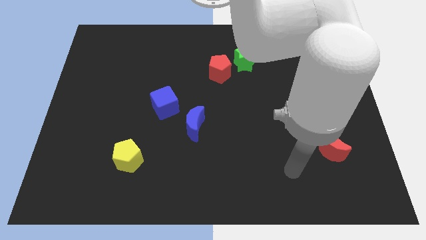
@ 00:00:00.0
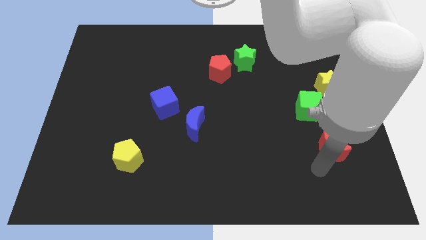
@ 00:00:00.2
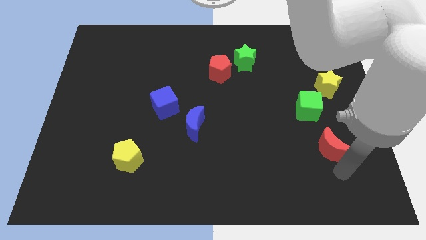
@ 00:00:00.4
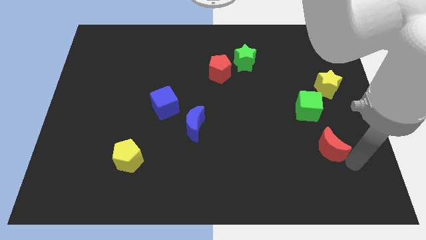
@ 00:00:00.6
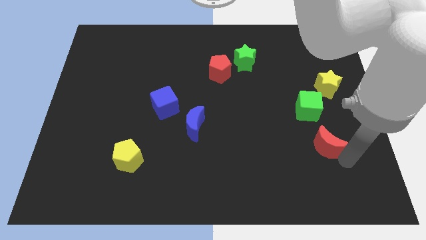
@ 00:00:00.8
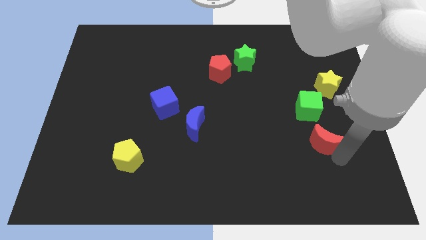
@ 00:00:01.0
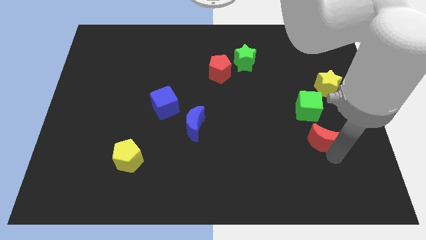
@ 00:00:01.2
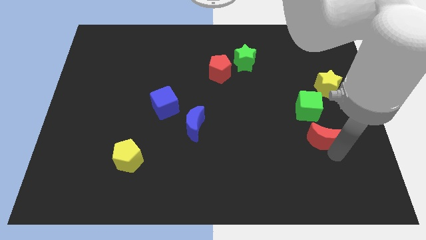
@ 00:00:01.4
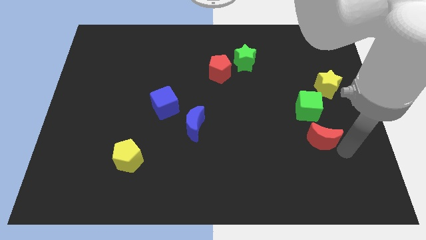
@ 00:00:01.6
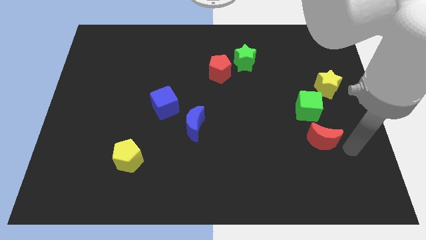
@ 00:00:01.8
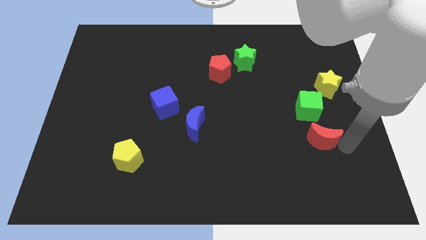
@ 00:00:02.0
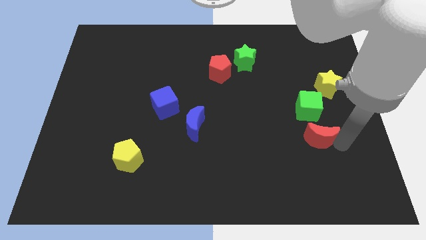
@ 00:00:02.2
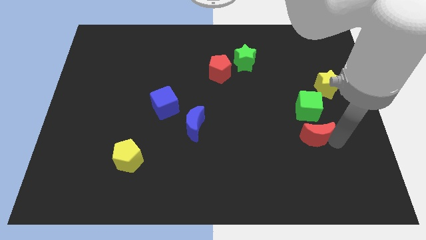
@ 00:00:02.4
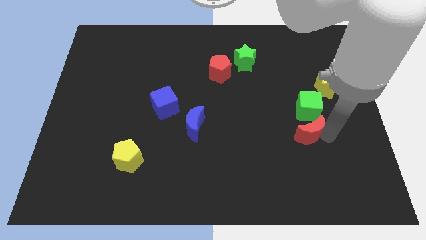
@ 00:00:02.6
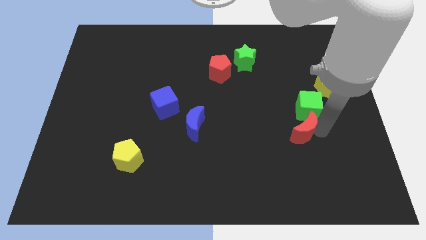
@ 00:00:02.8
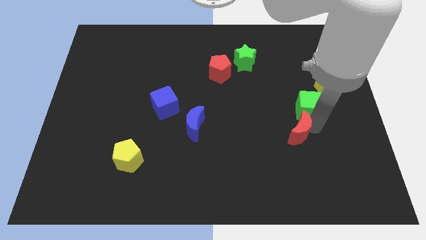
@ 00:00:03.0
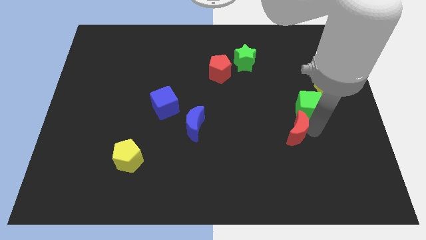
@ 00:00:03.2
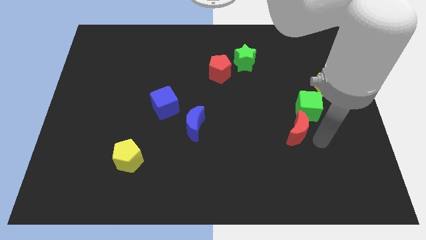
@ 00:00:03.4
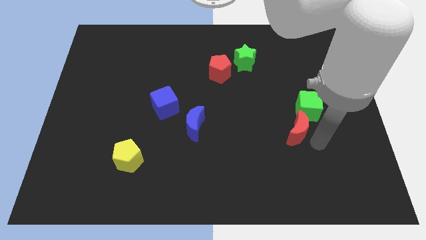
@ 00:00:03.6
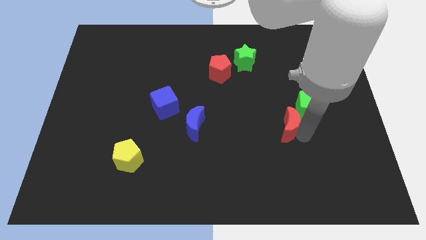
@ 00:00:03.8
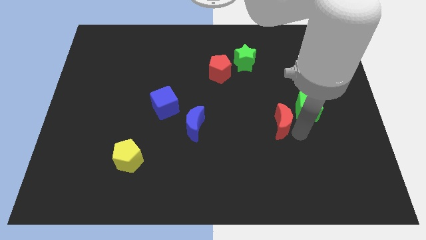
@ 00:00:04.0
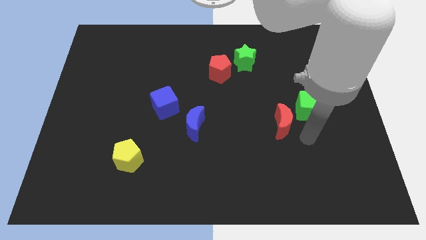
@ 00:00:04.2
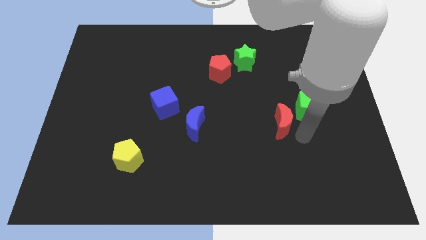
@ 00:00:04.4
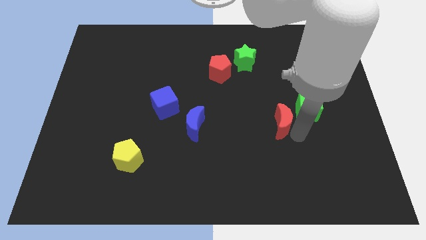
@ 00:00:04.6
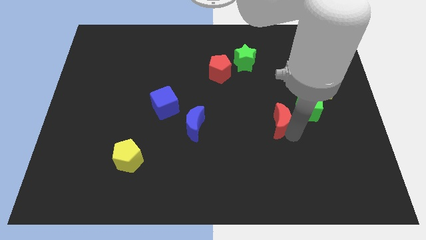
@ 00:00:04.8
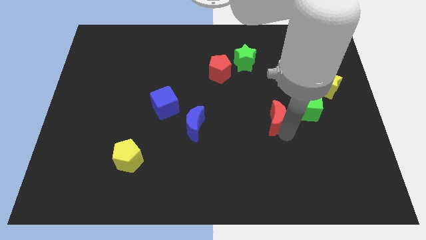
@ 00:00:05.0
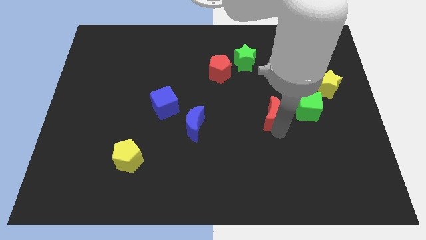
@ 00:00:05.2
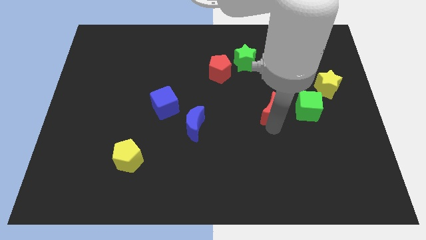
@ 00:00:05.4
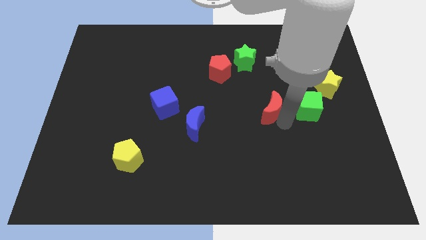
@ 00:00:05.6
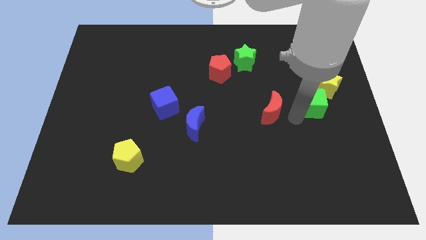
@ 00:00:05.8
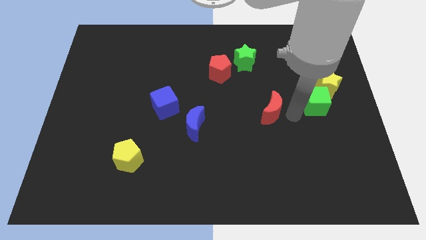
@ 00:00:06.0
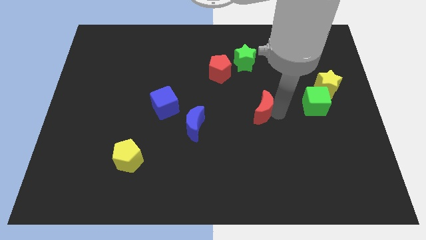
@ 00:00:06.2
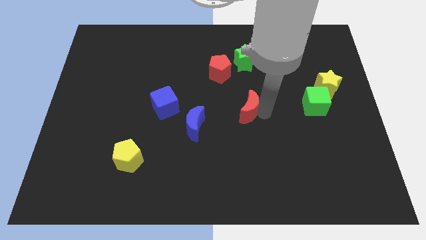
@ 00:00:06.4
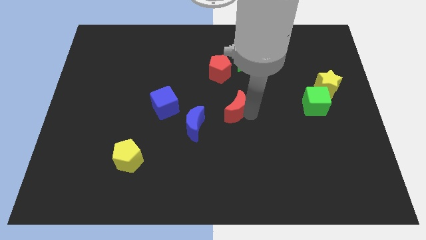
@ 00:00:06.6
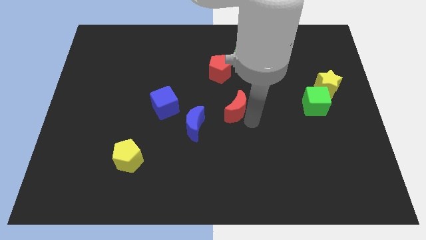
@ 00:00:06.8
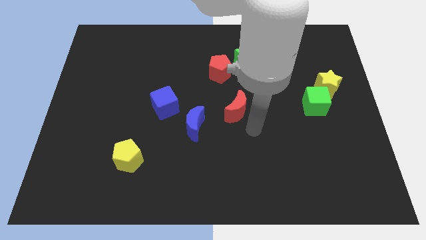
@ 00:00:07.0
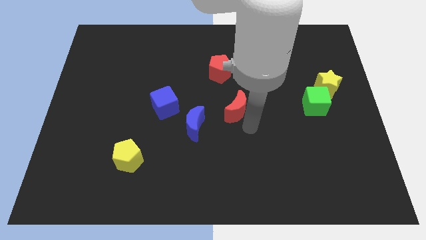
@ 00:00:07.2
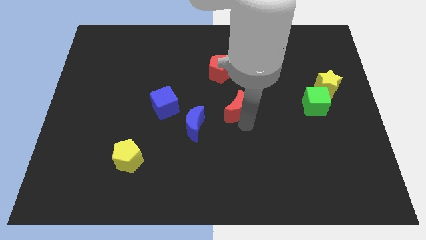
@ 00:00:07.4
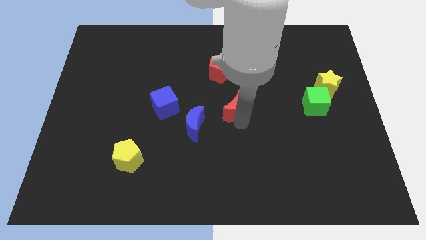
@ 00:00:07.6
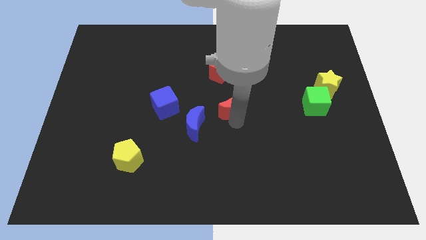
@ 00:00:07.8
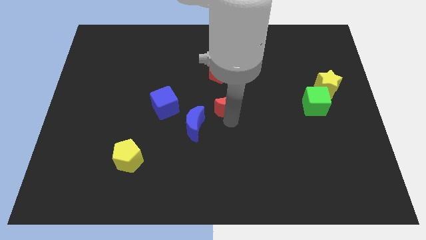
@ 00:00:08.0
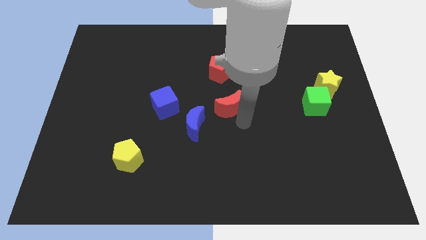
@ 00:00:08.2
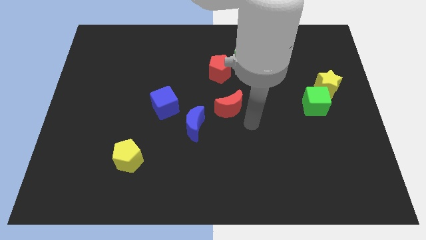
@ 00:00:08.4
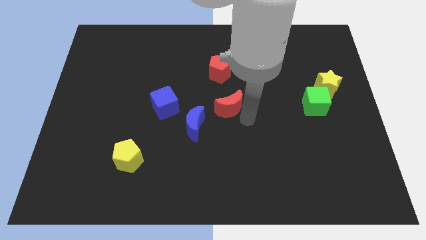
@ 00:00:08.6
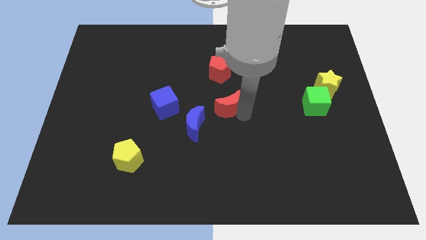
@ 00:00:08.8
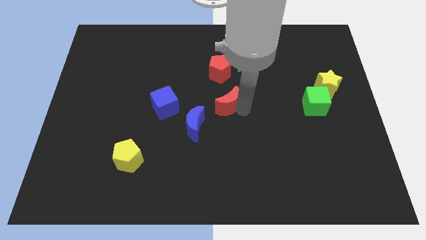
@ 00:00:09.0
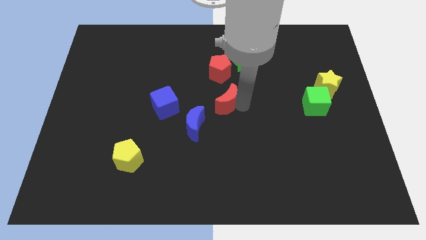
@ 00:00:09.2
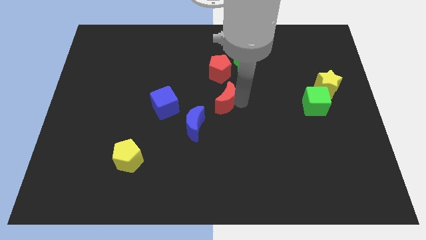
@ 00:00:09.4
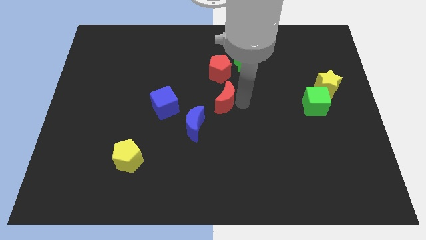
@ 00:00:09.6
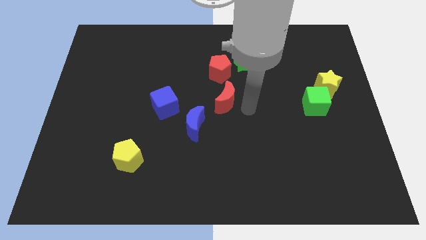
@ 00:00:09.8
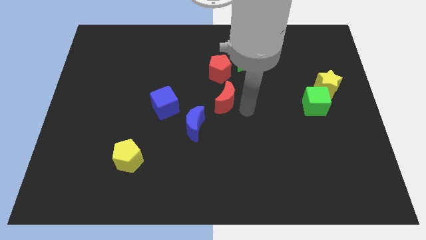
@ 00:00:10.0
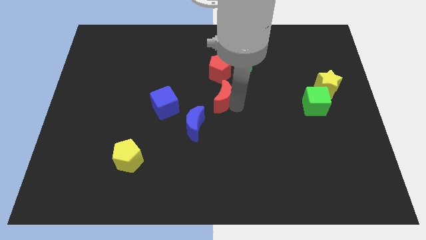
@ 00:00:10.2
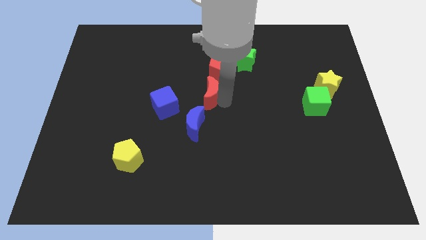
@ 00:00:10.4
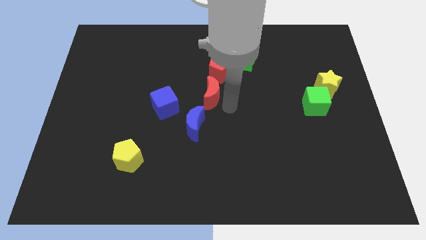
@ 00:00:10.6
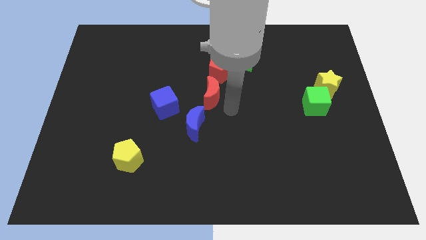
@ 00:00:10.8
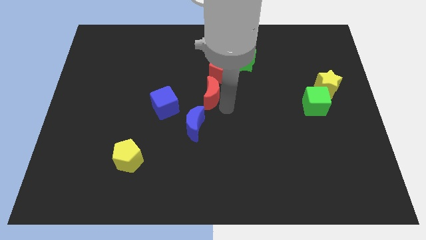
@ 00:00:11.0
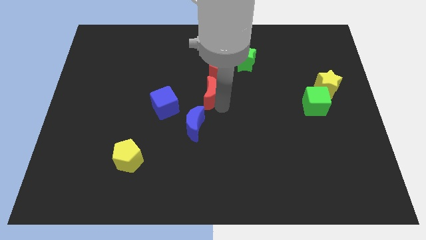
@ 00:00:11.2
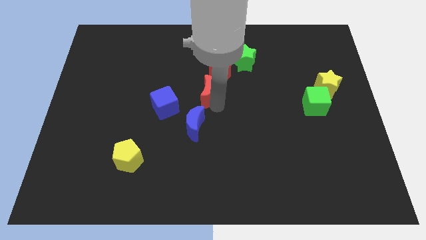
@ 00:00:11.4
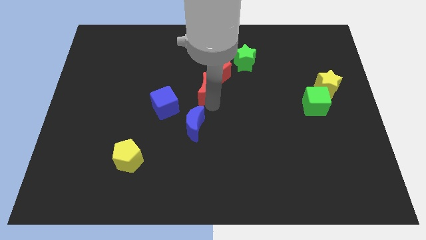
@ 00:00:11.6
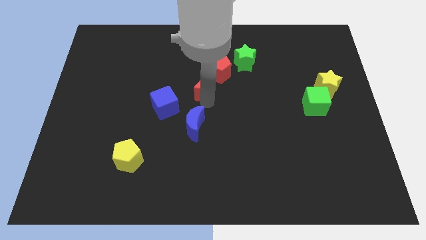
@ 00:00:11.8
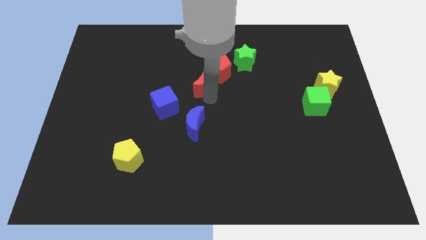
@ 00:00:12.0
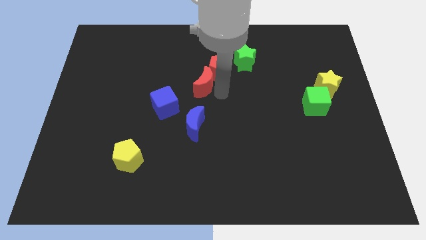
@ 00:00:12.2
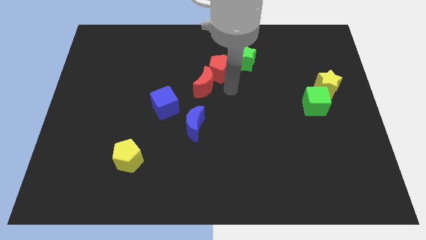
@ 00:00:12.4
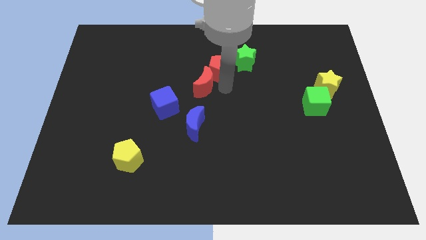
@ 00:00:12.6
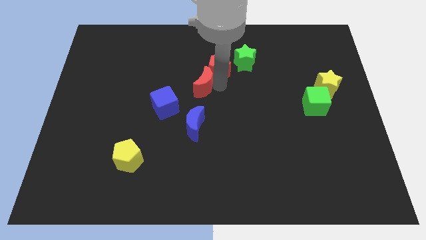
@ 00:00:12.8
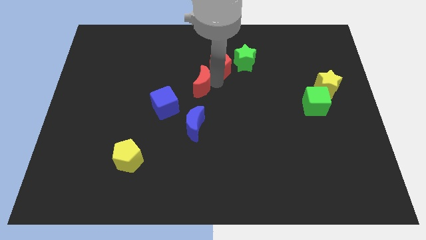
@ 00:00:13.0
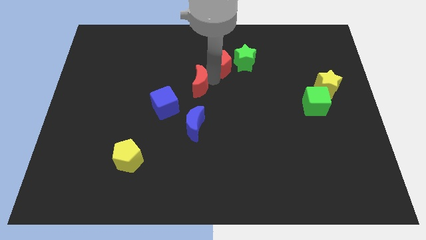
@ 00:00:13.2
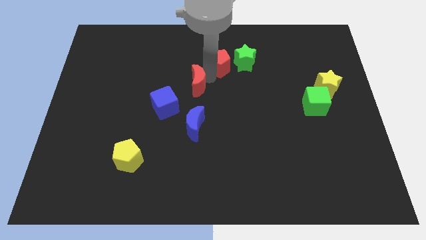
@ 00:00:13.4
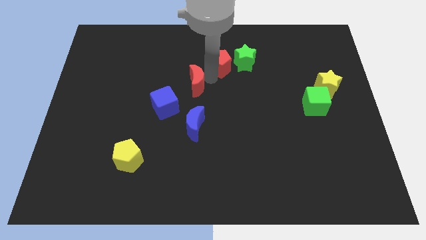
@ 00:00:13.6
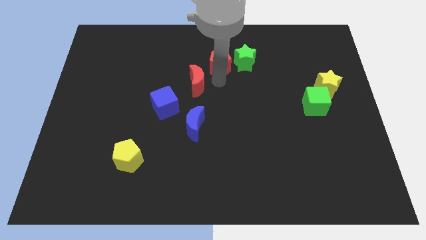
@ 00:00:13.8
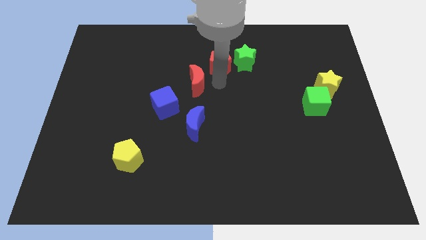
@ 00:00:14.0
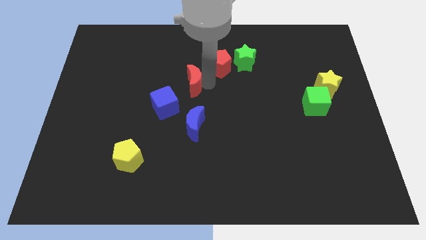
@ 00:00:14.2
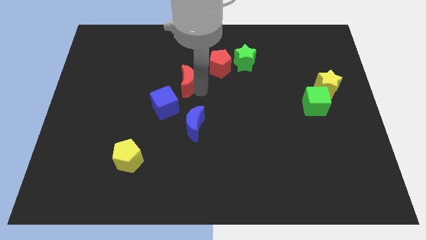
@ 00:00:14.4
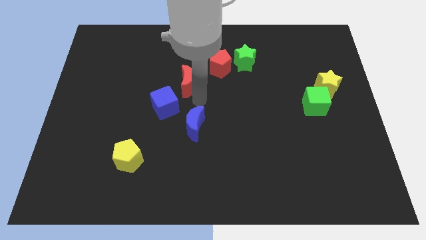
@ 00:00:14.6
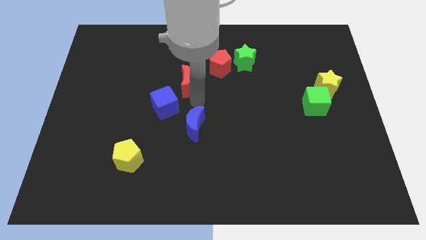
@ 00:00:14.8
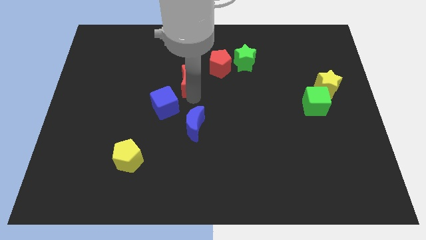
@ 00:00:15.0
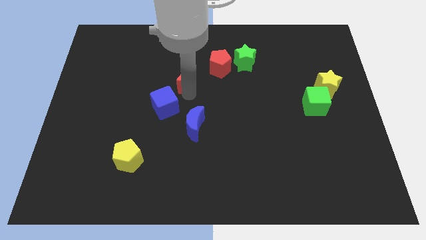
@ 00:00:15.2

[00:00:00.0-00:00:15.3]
move the red moon to the left of the red pentagon

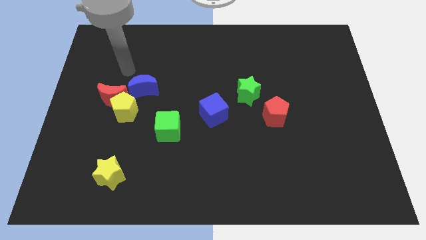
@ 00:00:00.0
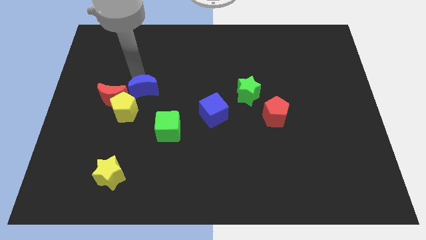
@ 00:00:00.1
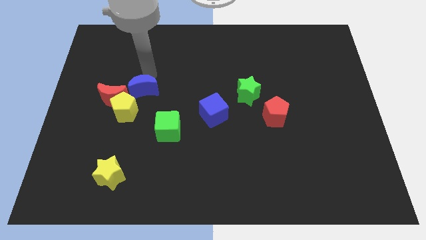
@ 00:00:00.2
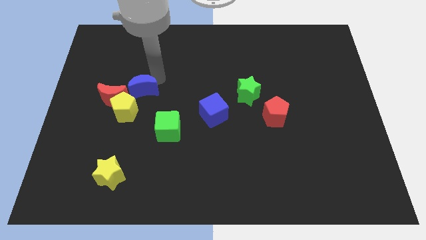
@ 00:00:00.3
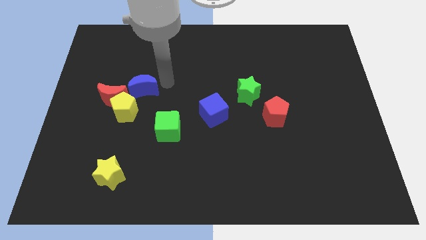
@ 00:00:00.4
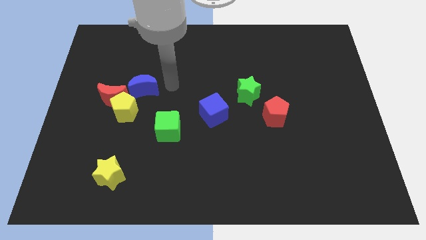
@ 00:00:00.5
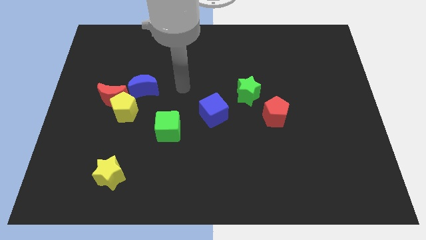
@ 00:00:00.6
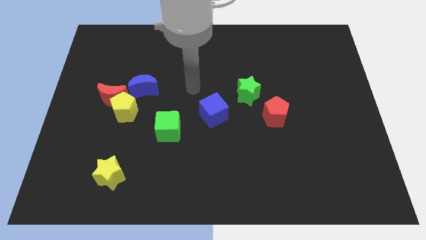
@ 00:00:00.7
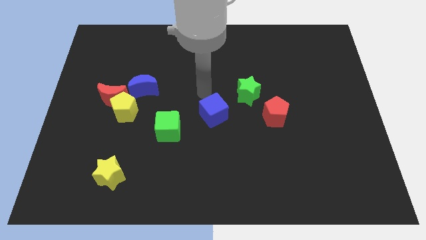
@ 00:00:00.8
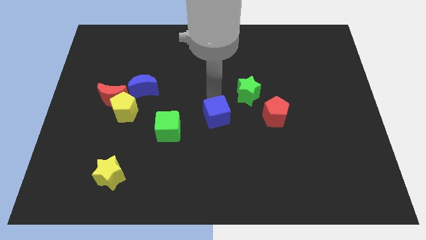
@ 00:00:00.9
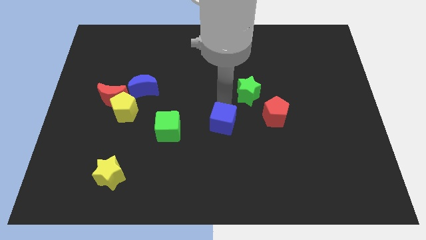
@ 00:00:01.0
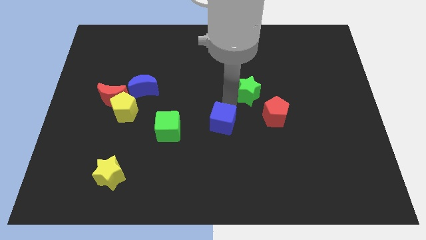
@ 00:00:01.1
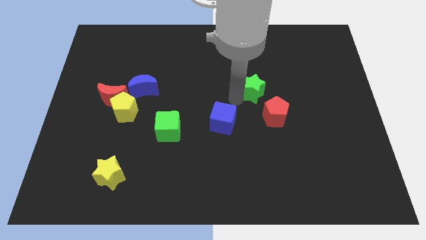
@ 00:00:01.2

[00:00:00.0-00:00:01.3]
move the green star above the red pentagon
